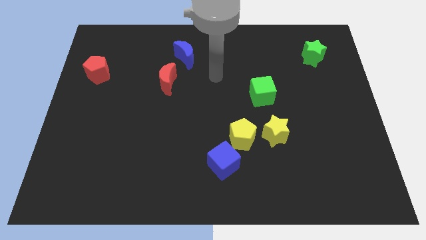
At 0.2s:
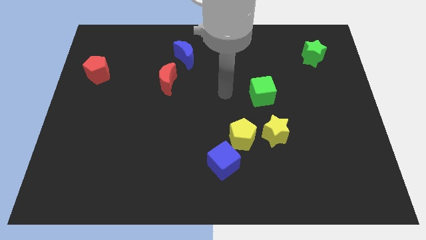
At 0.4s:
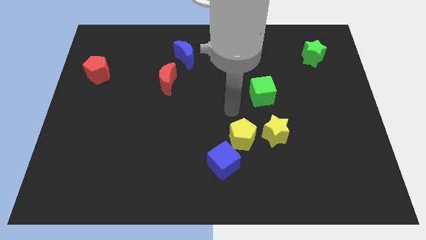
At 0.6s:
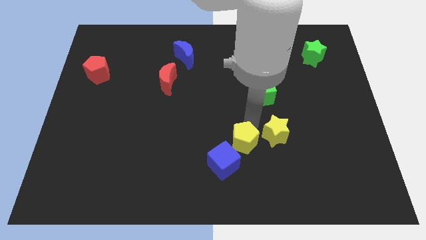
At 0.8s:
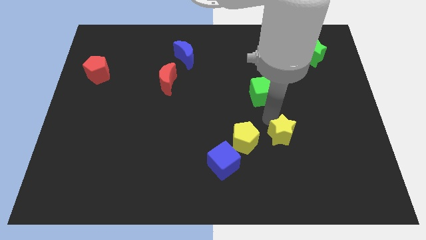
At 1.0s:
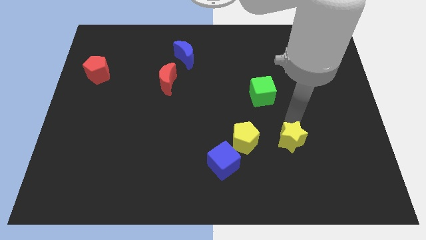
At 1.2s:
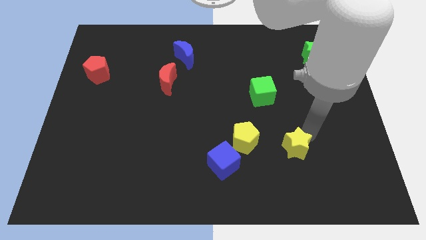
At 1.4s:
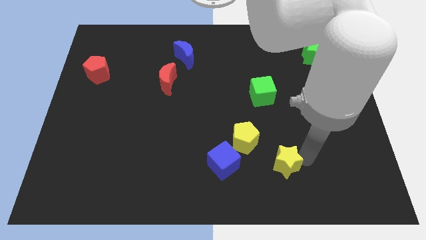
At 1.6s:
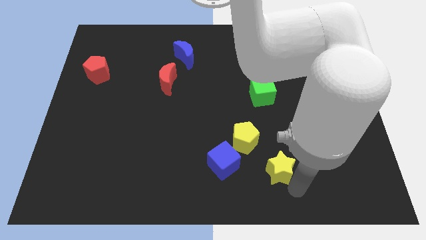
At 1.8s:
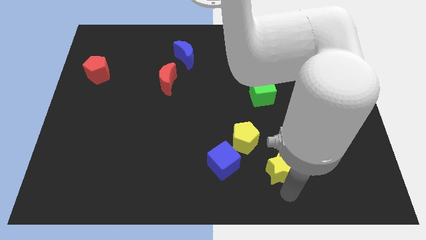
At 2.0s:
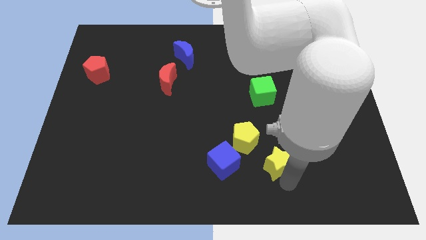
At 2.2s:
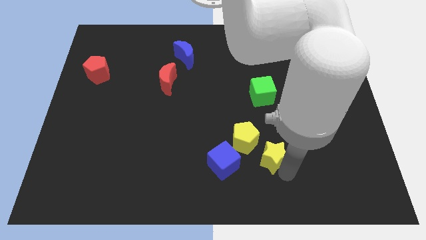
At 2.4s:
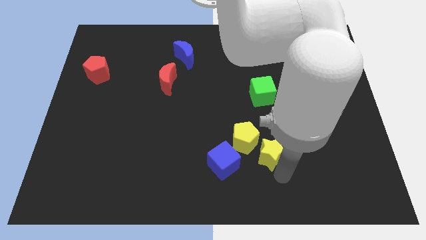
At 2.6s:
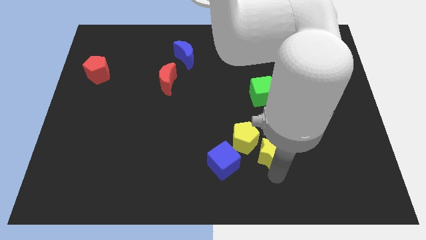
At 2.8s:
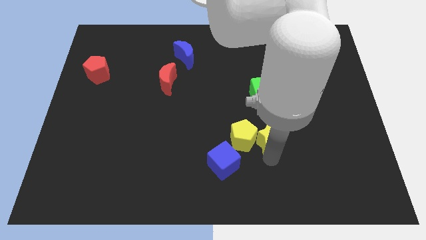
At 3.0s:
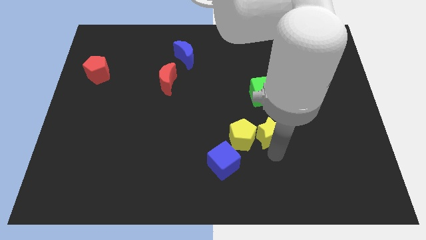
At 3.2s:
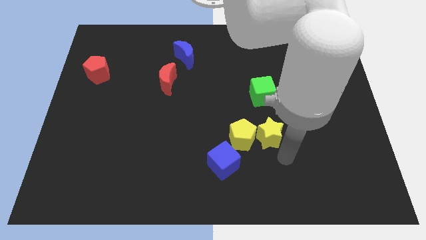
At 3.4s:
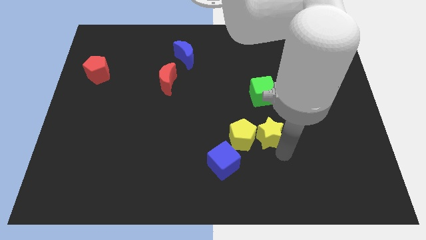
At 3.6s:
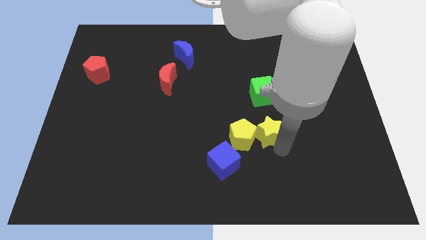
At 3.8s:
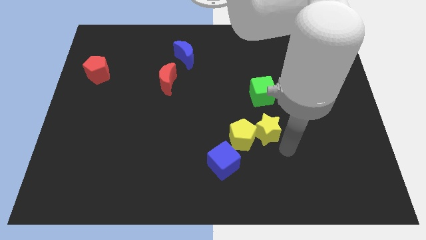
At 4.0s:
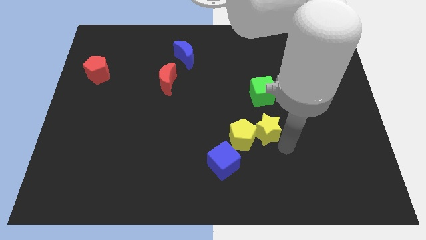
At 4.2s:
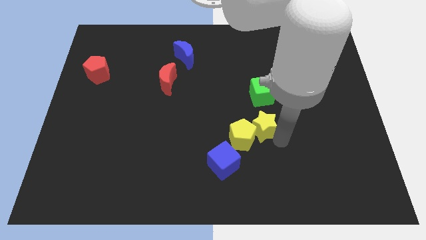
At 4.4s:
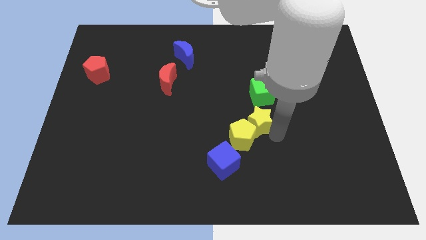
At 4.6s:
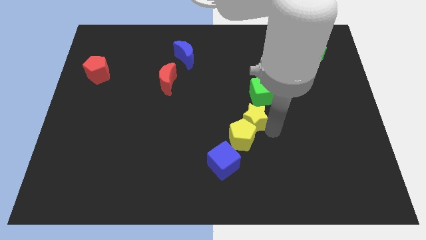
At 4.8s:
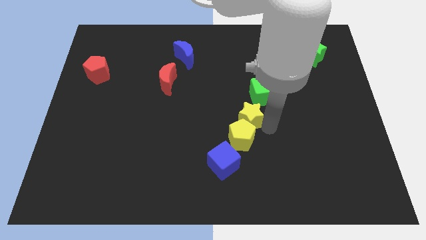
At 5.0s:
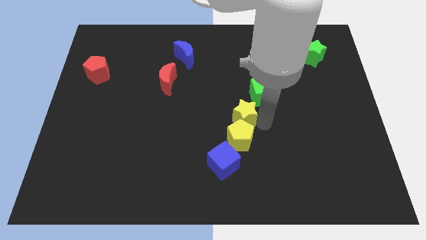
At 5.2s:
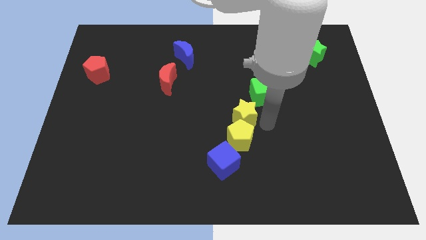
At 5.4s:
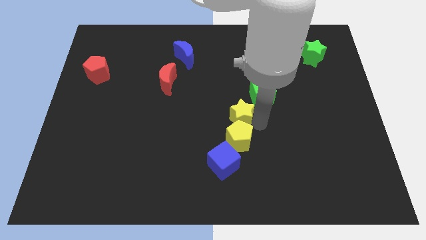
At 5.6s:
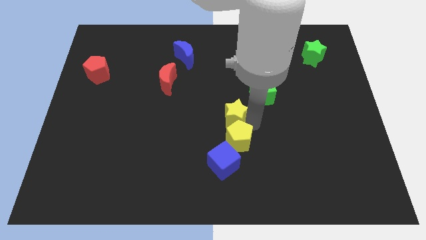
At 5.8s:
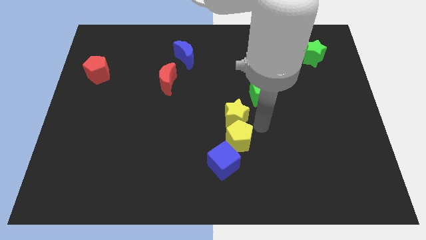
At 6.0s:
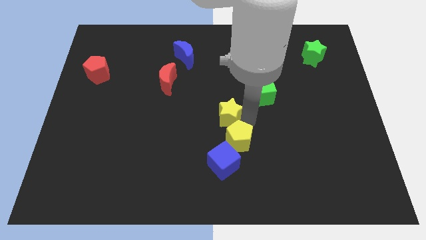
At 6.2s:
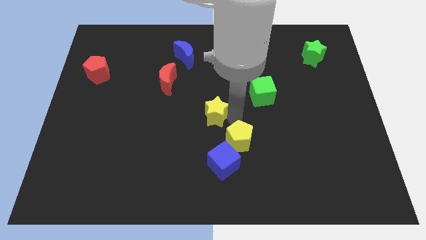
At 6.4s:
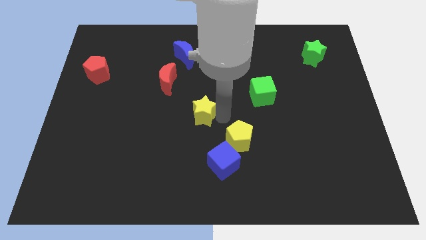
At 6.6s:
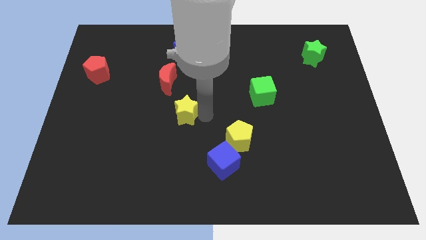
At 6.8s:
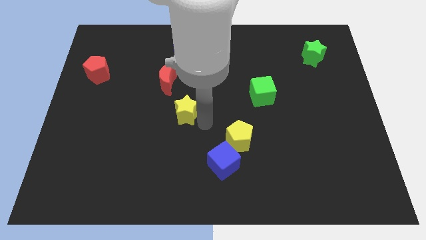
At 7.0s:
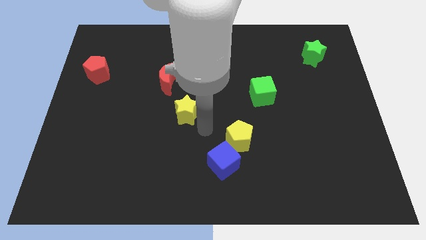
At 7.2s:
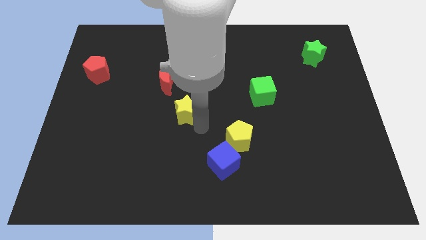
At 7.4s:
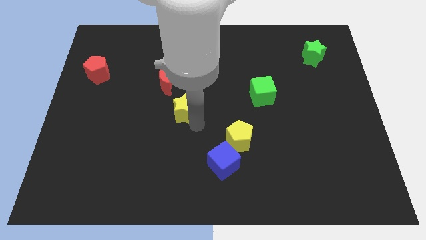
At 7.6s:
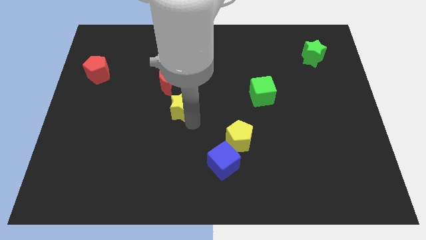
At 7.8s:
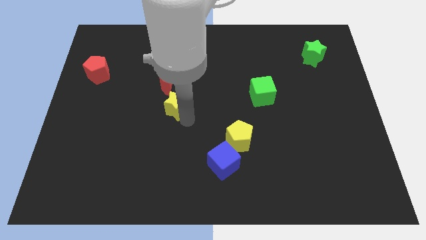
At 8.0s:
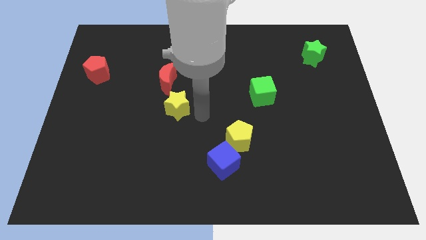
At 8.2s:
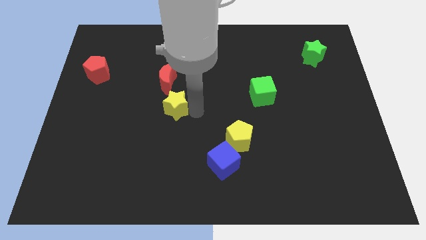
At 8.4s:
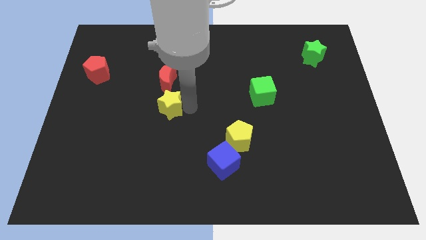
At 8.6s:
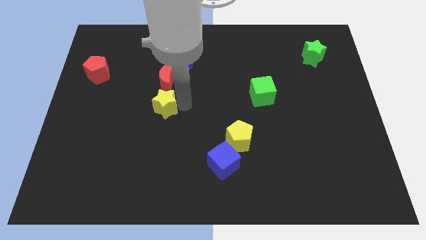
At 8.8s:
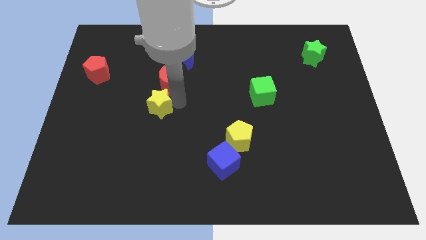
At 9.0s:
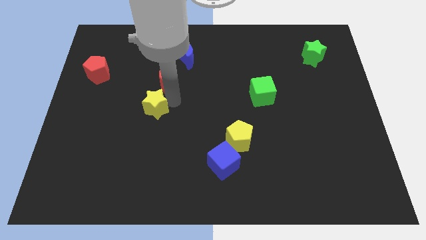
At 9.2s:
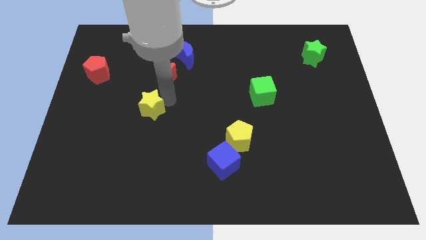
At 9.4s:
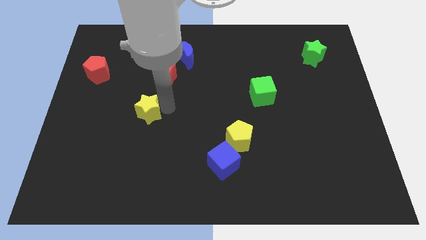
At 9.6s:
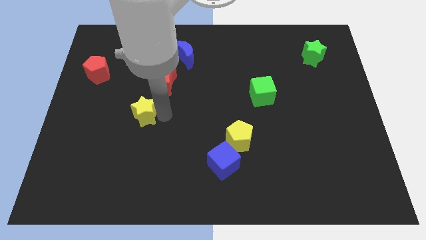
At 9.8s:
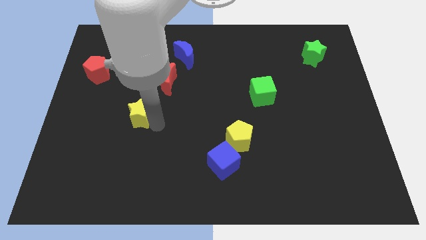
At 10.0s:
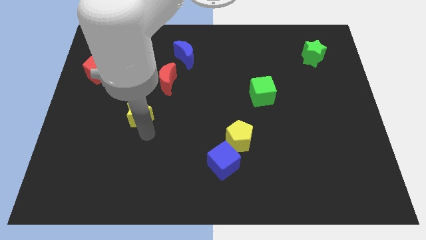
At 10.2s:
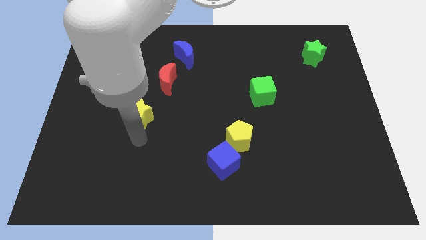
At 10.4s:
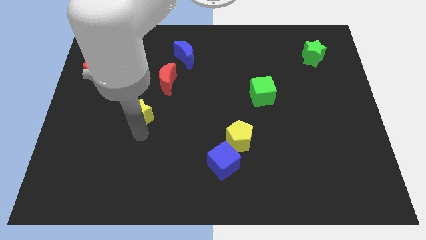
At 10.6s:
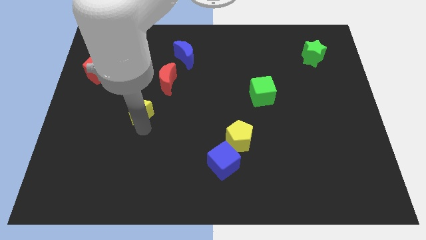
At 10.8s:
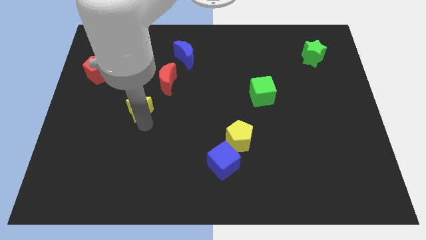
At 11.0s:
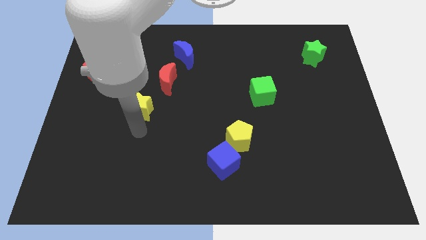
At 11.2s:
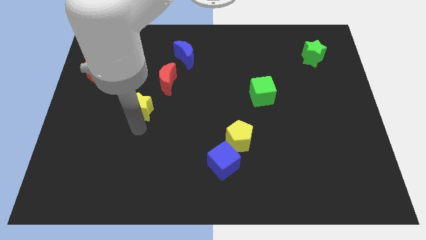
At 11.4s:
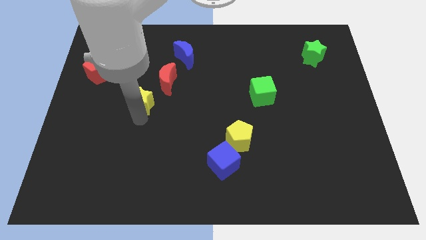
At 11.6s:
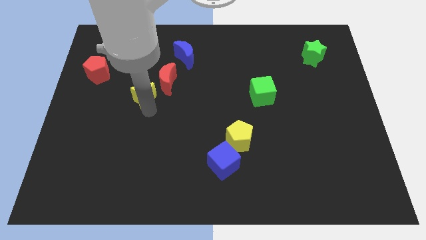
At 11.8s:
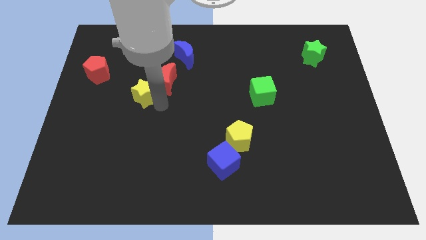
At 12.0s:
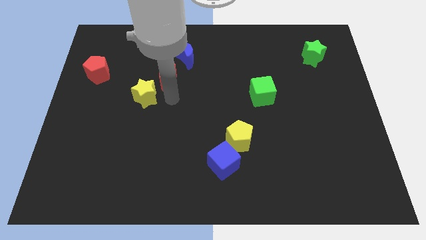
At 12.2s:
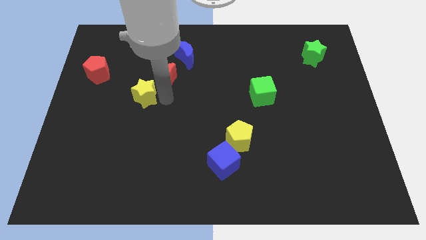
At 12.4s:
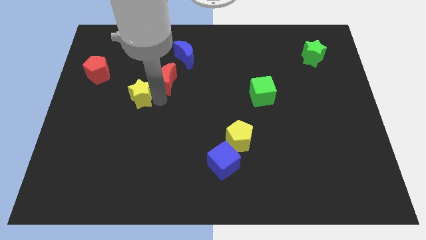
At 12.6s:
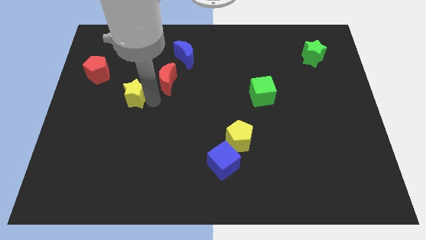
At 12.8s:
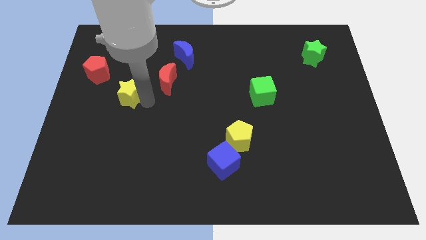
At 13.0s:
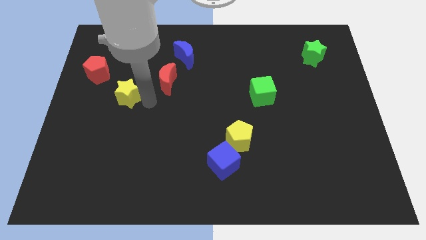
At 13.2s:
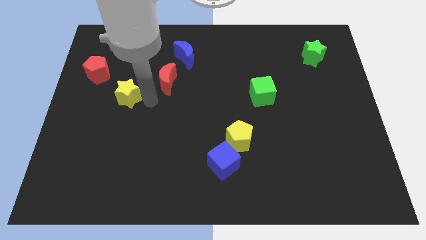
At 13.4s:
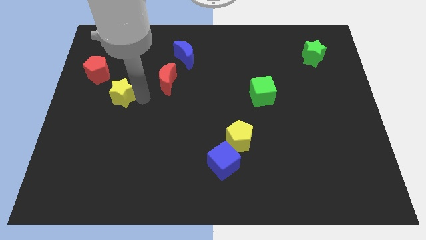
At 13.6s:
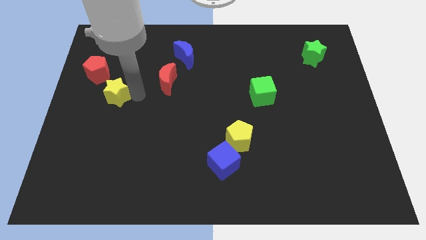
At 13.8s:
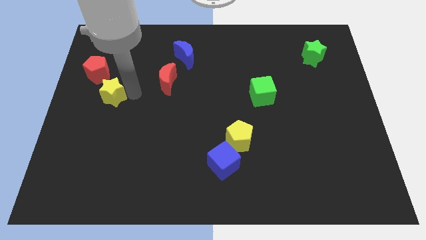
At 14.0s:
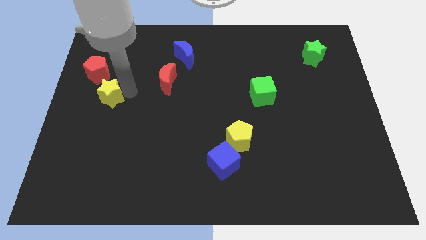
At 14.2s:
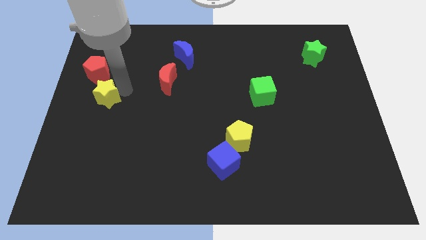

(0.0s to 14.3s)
move the yellow star to the left side

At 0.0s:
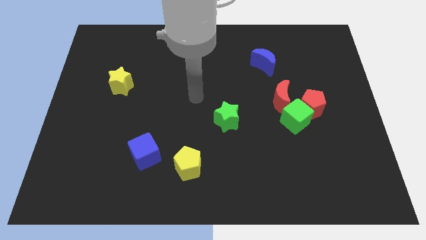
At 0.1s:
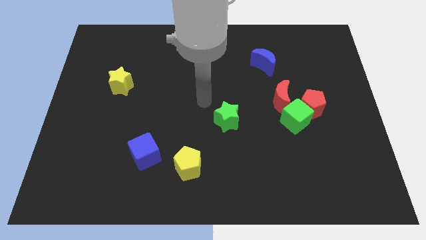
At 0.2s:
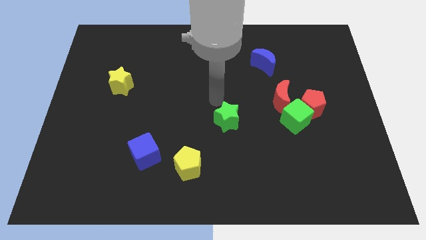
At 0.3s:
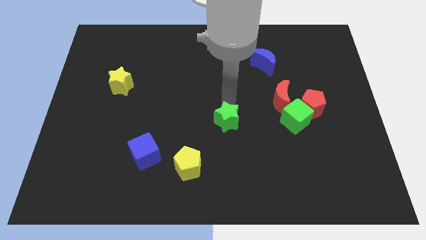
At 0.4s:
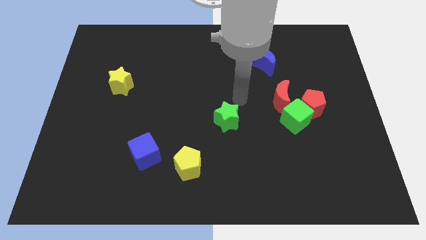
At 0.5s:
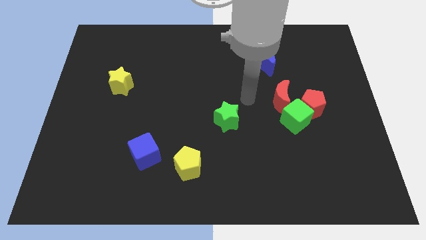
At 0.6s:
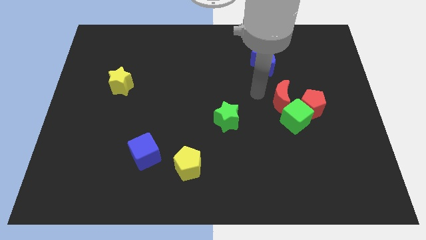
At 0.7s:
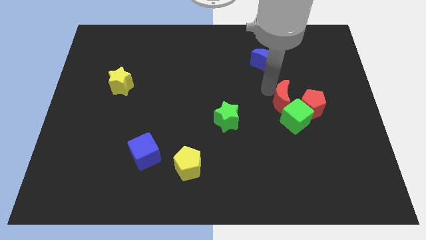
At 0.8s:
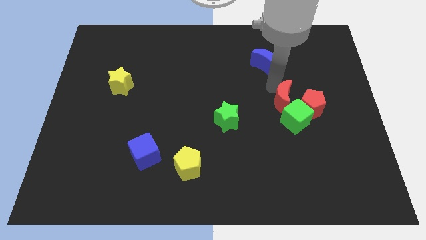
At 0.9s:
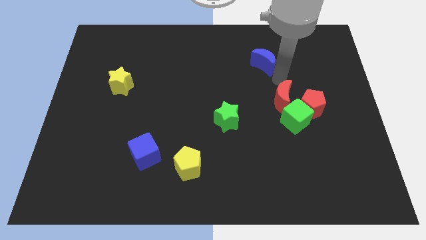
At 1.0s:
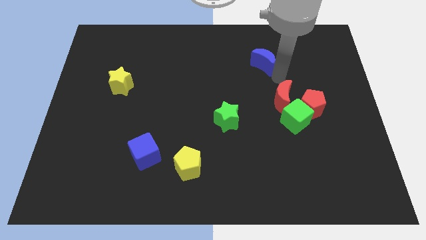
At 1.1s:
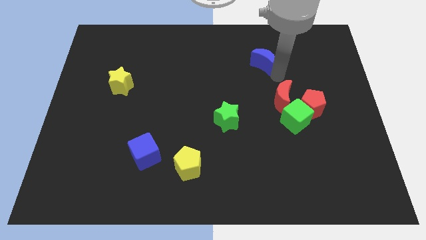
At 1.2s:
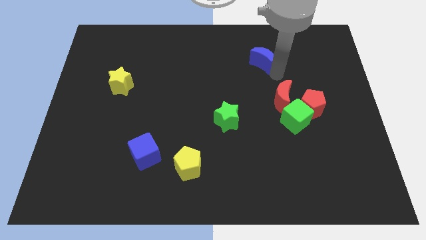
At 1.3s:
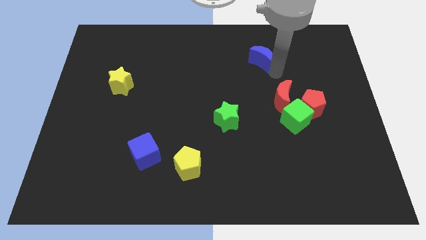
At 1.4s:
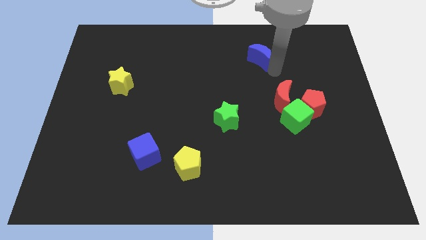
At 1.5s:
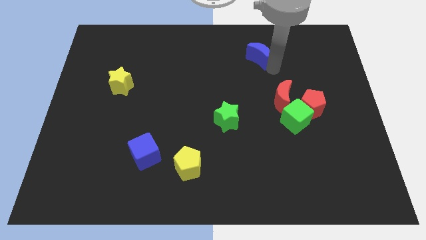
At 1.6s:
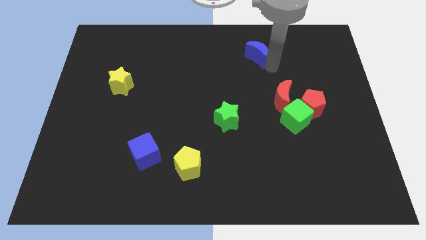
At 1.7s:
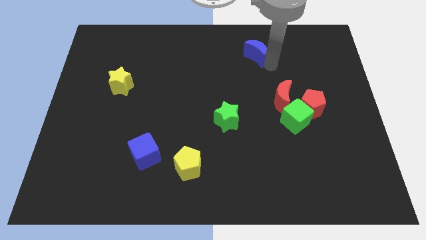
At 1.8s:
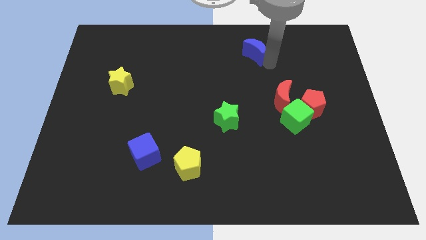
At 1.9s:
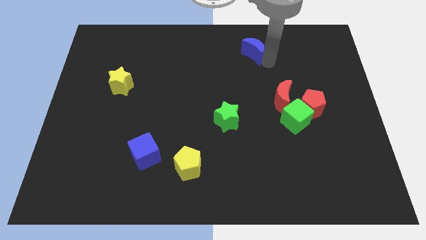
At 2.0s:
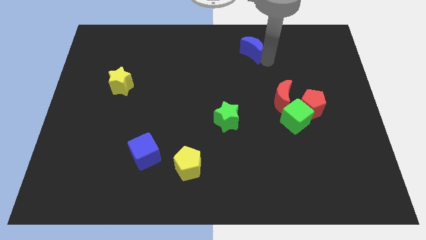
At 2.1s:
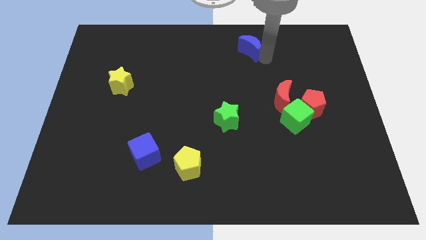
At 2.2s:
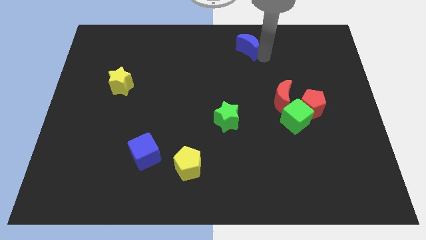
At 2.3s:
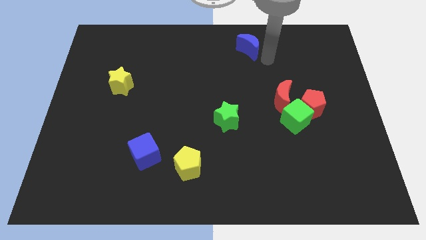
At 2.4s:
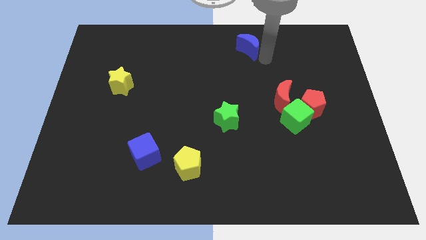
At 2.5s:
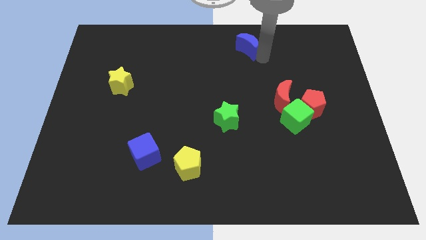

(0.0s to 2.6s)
move the blue moon to the top
